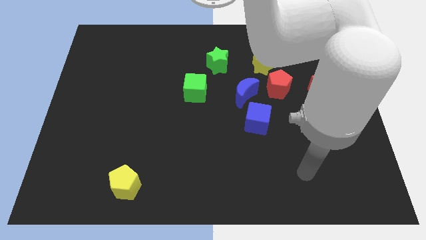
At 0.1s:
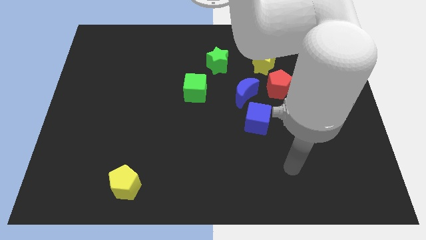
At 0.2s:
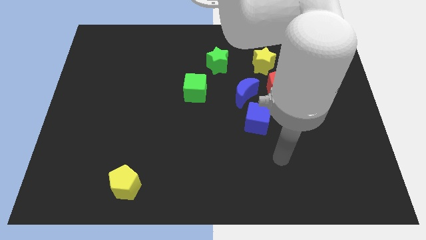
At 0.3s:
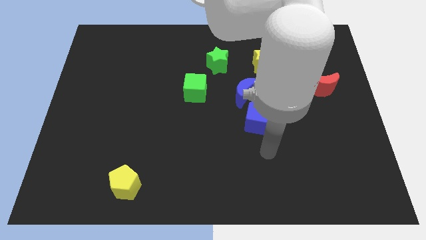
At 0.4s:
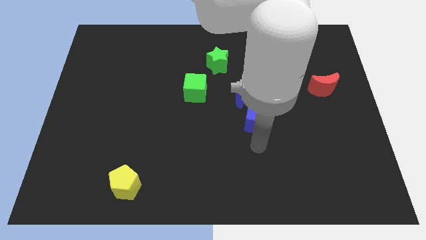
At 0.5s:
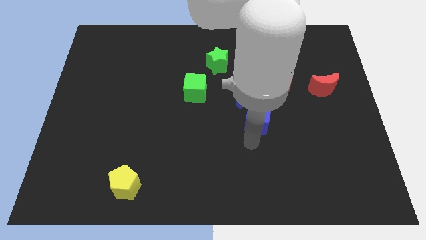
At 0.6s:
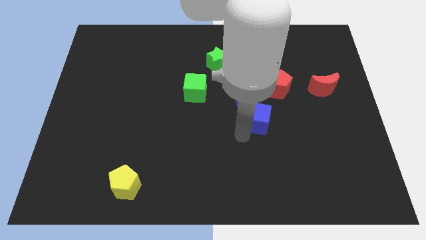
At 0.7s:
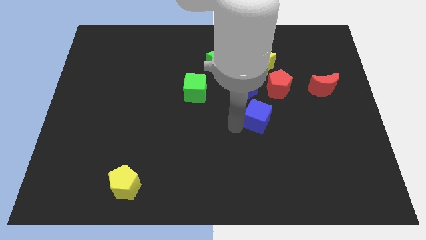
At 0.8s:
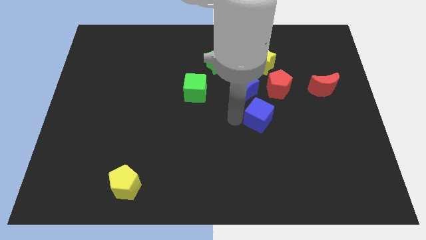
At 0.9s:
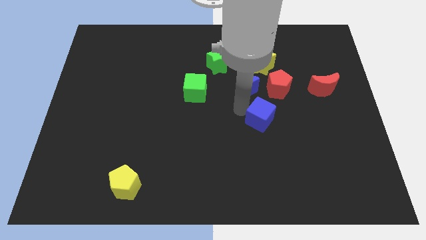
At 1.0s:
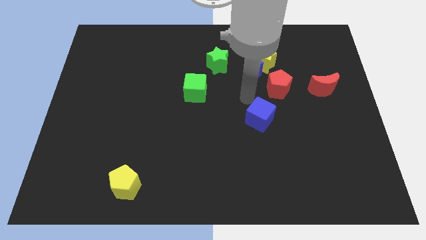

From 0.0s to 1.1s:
separate the blue cube from the blue moon

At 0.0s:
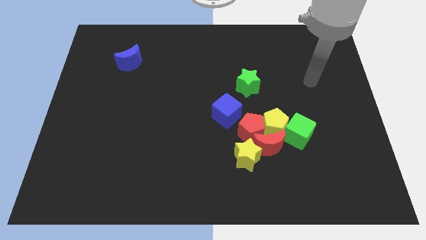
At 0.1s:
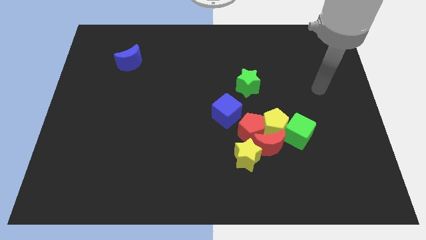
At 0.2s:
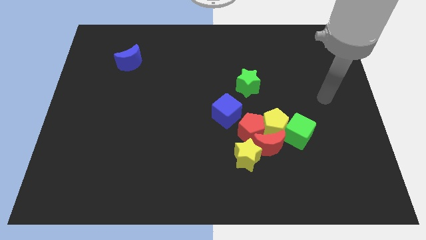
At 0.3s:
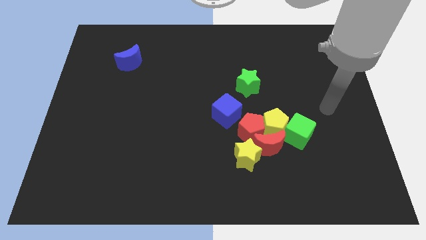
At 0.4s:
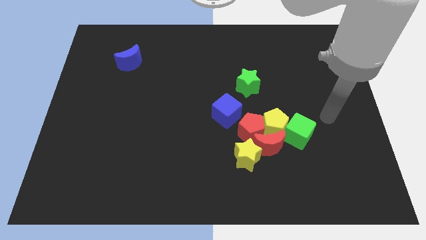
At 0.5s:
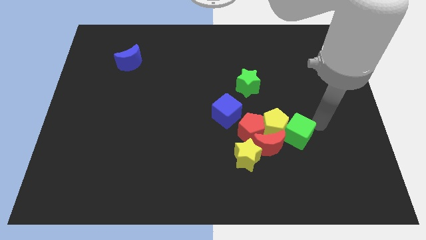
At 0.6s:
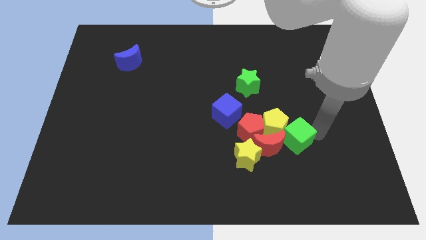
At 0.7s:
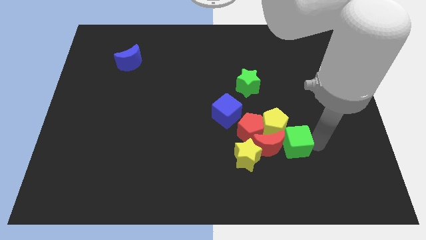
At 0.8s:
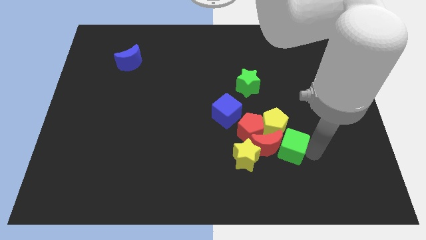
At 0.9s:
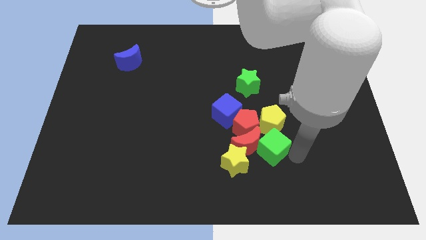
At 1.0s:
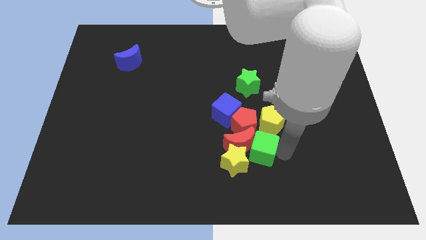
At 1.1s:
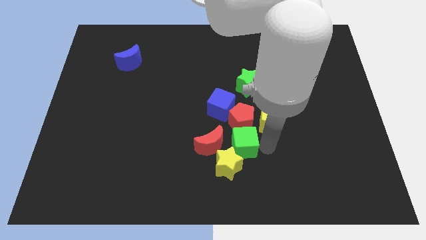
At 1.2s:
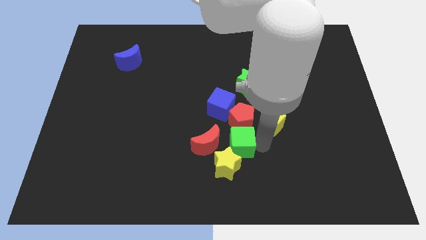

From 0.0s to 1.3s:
move the yellow pentagon away from the red moon, red pentagon, and green cube

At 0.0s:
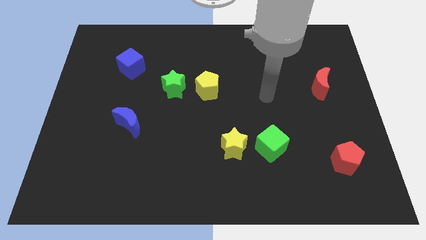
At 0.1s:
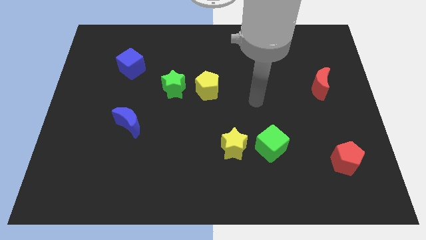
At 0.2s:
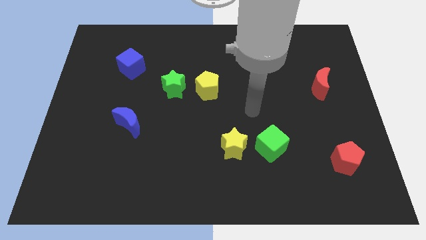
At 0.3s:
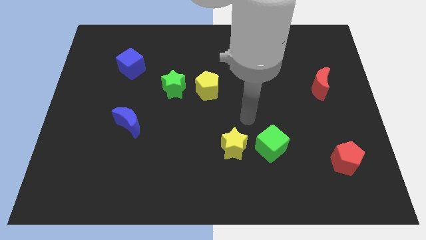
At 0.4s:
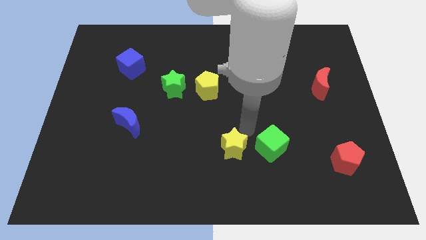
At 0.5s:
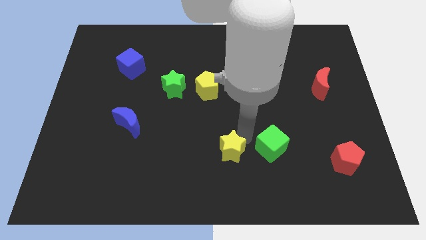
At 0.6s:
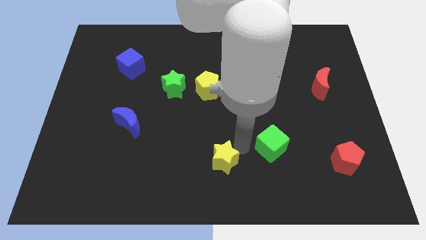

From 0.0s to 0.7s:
pull the green cube apart from the yellow star

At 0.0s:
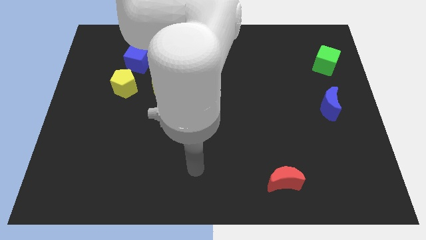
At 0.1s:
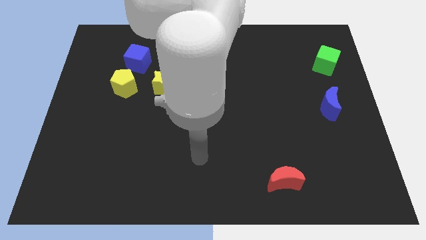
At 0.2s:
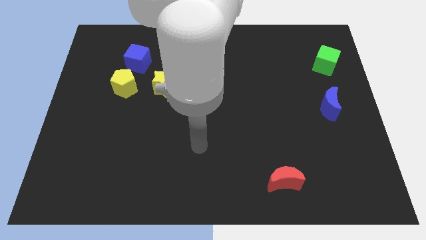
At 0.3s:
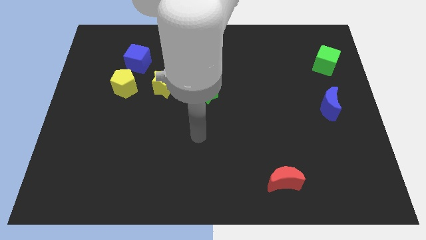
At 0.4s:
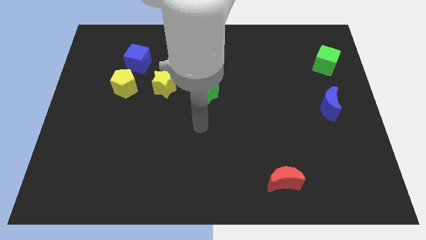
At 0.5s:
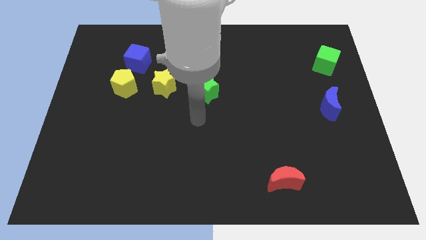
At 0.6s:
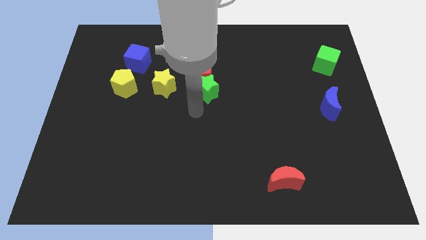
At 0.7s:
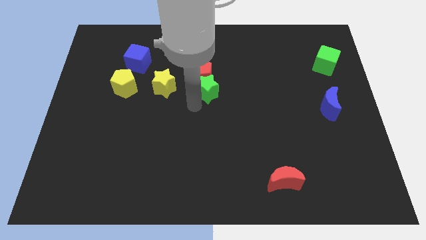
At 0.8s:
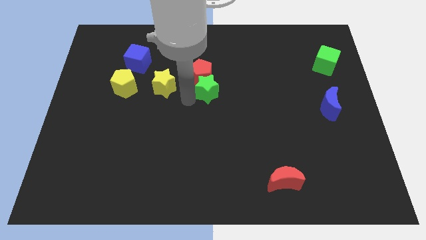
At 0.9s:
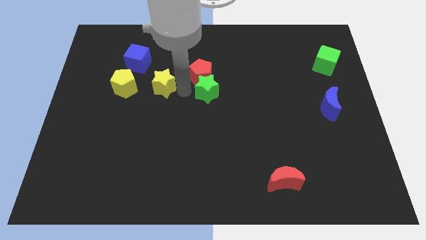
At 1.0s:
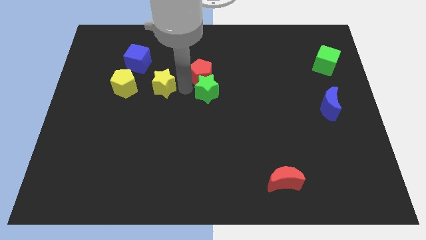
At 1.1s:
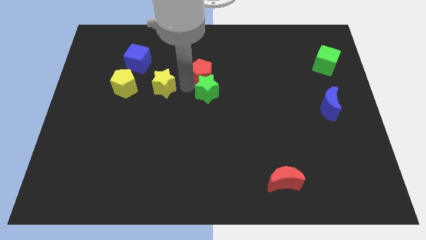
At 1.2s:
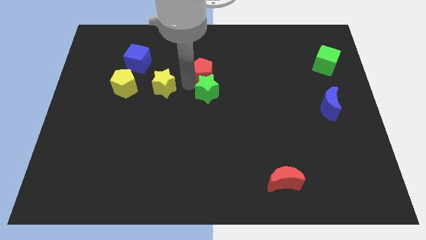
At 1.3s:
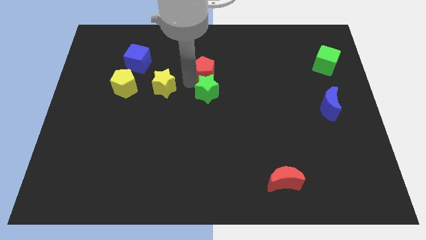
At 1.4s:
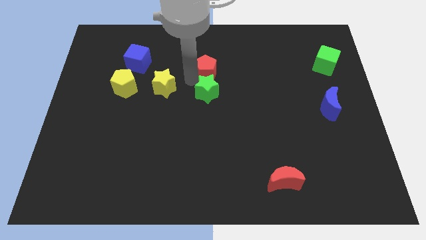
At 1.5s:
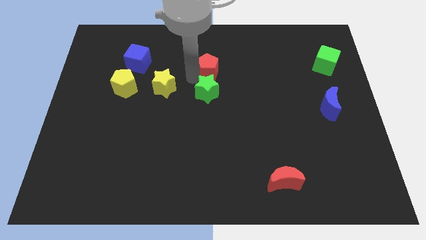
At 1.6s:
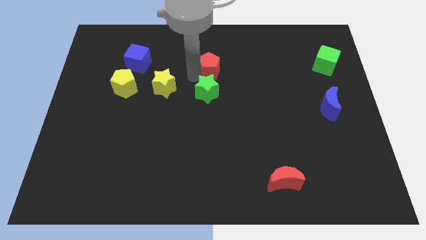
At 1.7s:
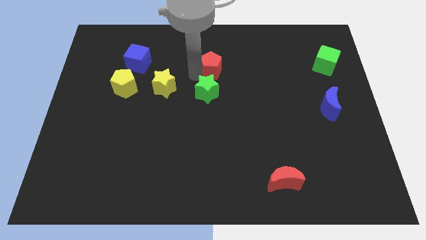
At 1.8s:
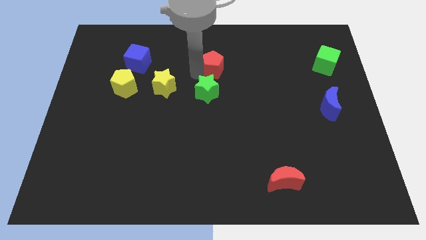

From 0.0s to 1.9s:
separate the red pentagon from the green star and yellow star

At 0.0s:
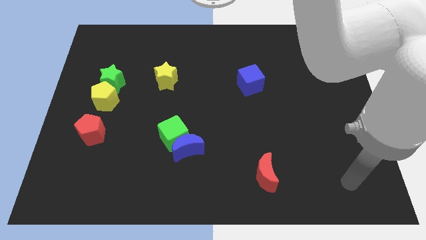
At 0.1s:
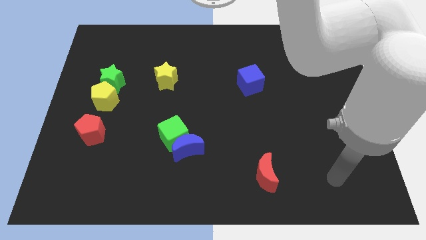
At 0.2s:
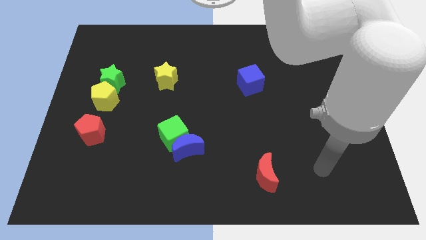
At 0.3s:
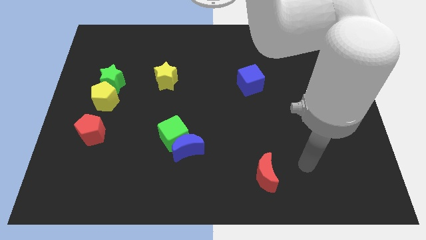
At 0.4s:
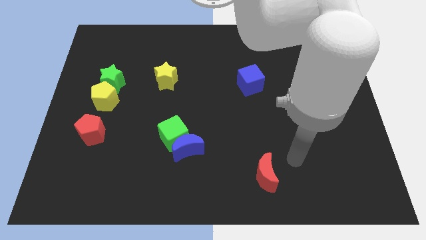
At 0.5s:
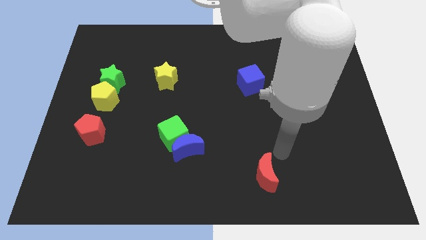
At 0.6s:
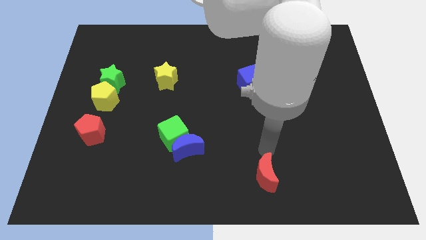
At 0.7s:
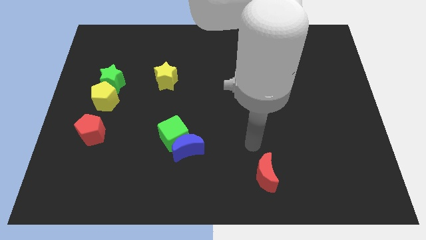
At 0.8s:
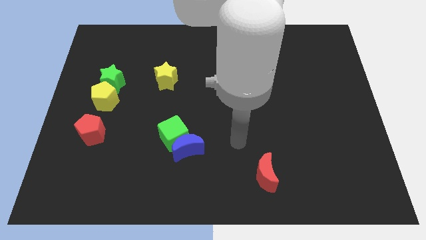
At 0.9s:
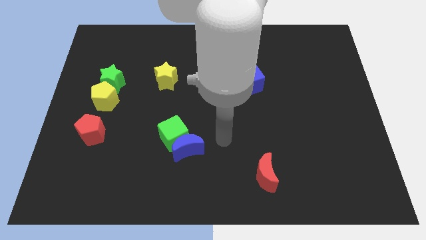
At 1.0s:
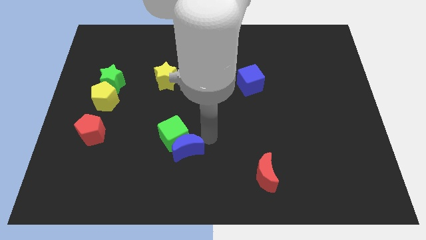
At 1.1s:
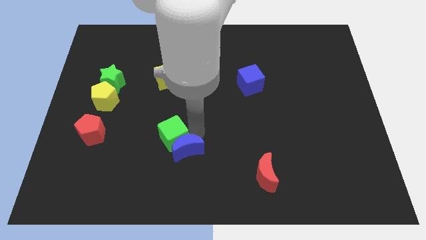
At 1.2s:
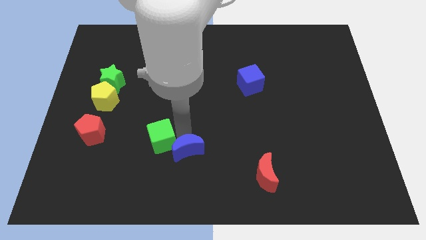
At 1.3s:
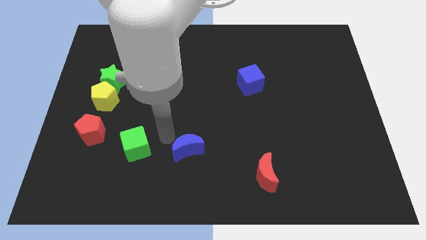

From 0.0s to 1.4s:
separate the blue moon from the green cube

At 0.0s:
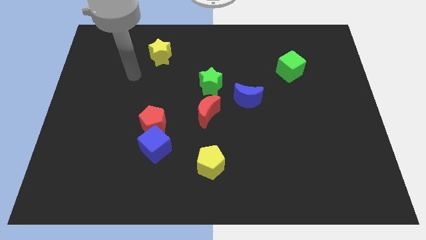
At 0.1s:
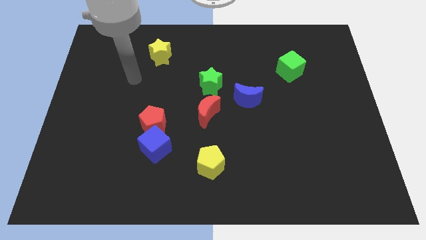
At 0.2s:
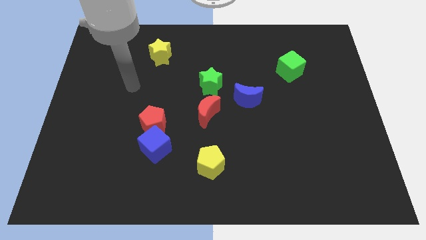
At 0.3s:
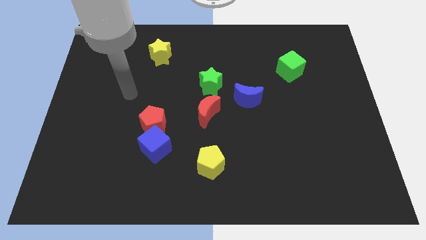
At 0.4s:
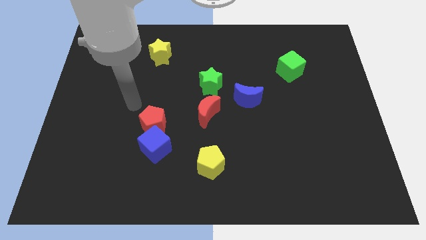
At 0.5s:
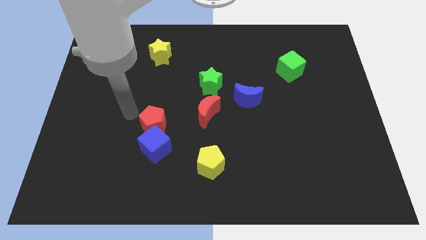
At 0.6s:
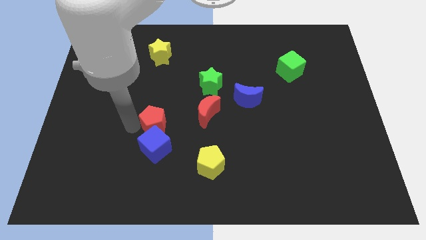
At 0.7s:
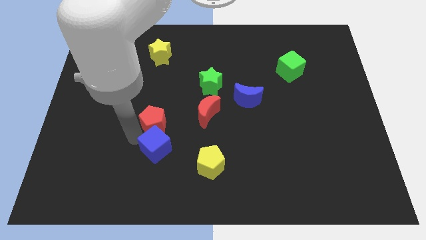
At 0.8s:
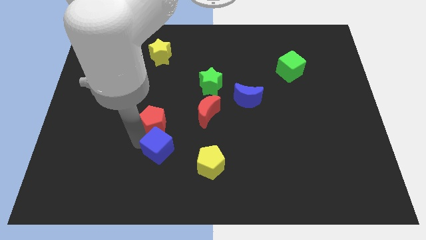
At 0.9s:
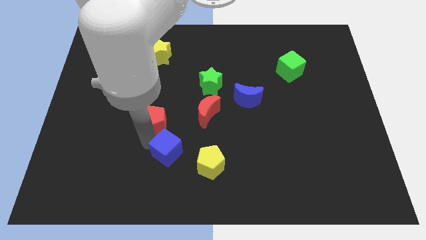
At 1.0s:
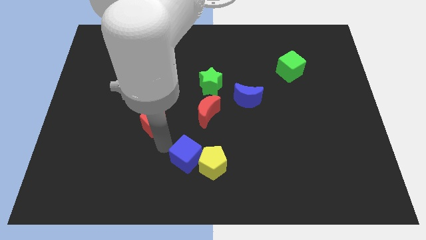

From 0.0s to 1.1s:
separate the red pentagon from the blue cube

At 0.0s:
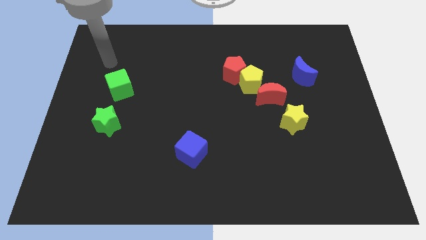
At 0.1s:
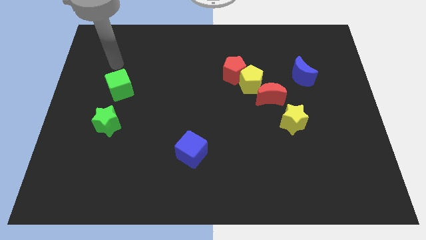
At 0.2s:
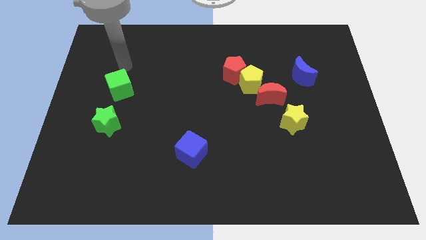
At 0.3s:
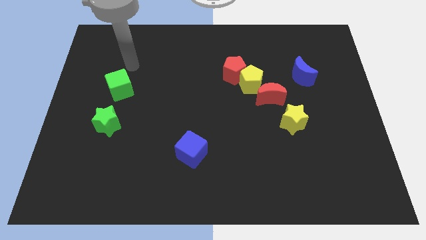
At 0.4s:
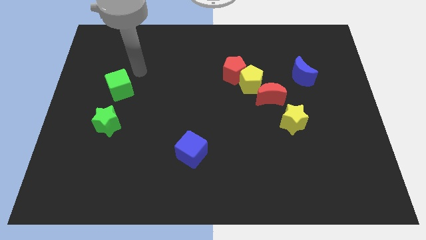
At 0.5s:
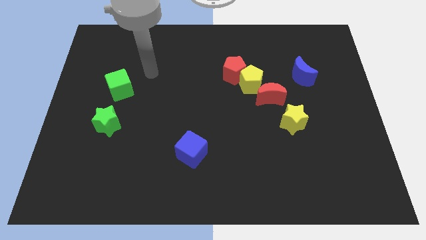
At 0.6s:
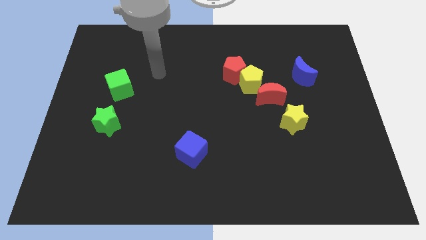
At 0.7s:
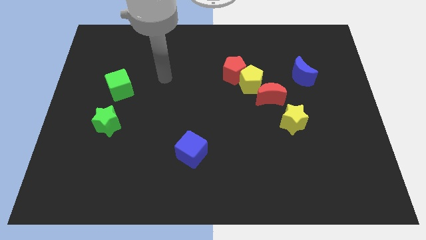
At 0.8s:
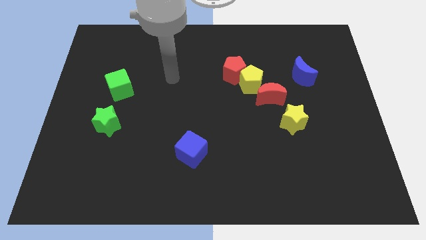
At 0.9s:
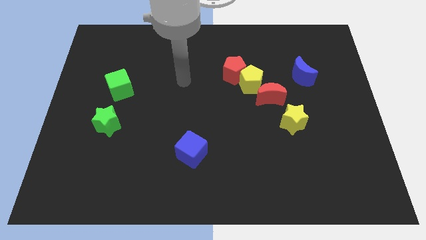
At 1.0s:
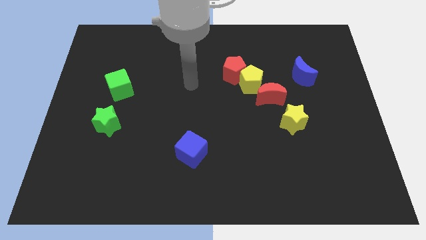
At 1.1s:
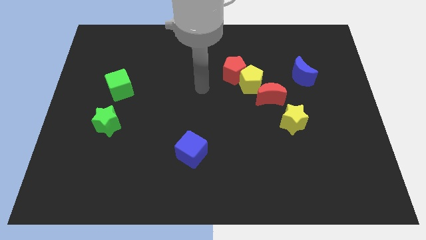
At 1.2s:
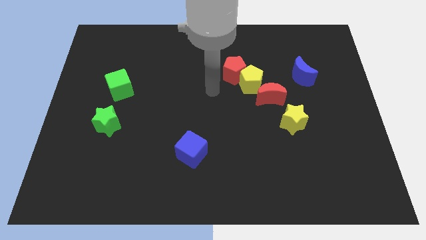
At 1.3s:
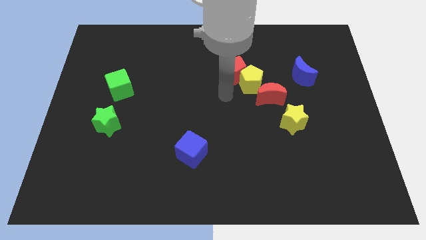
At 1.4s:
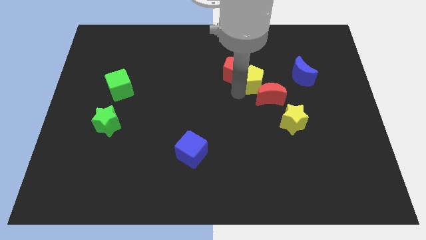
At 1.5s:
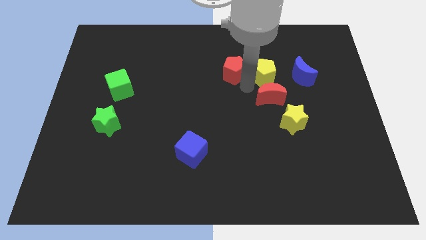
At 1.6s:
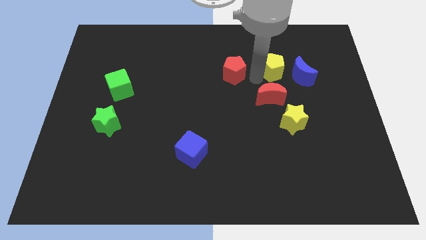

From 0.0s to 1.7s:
move the red pentagon away from the yellow pentagon
